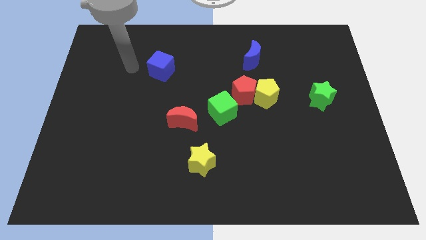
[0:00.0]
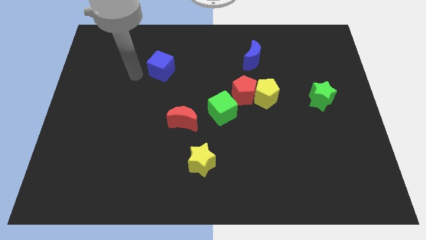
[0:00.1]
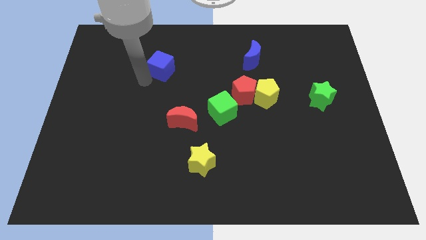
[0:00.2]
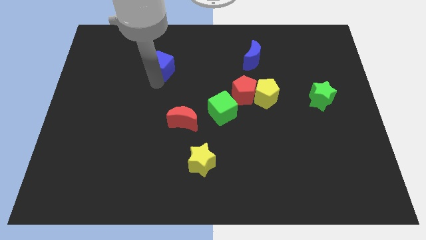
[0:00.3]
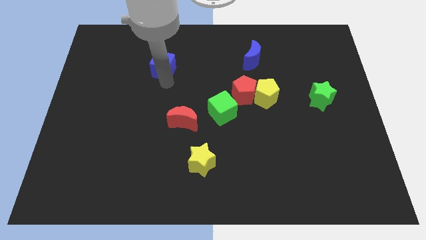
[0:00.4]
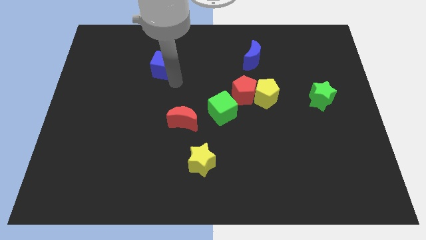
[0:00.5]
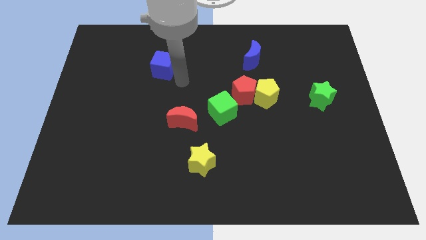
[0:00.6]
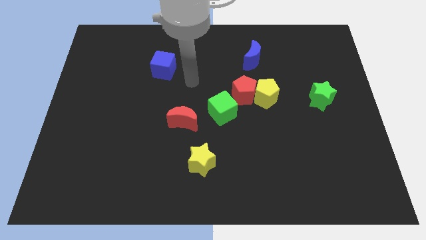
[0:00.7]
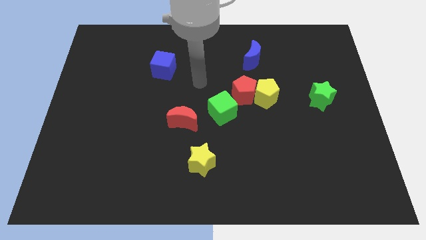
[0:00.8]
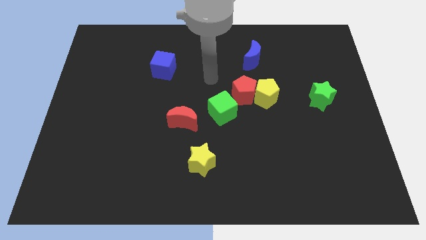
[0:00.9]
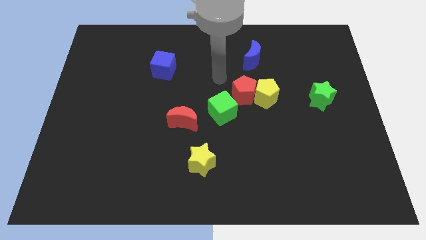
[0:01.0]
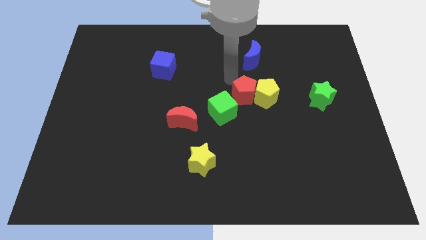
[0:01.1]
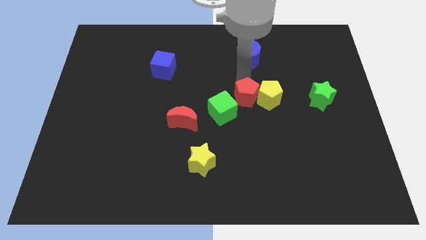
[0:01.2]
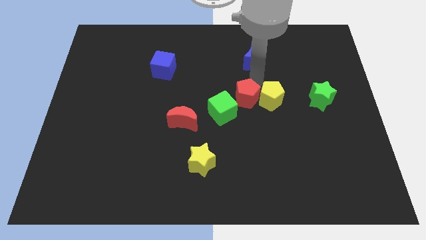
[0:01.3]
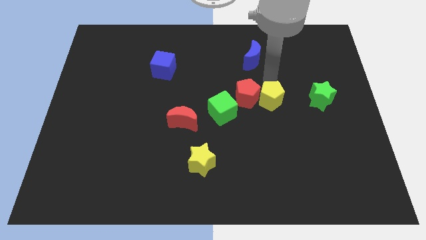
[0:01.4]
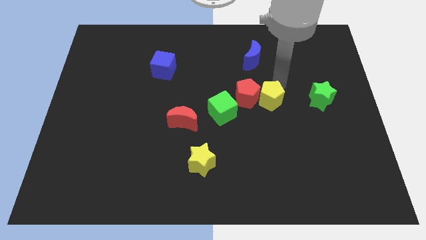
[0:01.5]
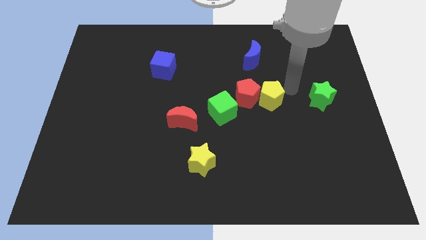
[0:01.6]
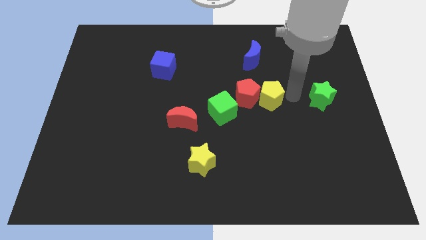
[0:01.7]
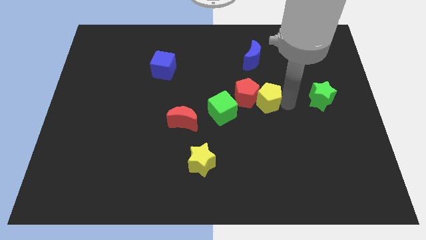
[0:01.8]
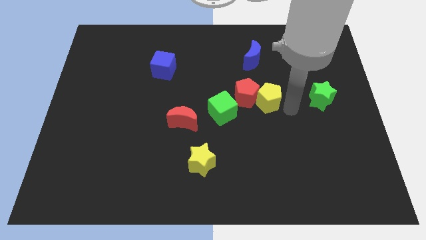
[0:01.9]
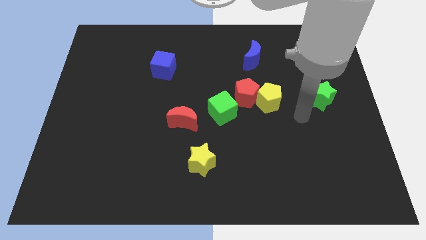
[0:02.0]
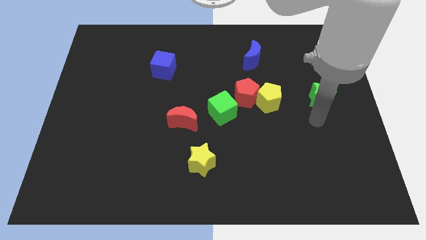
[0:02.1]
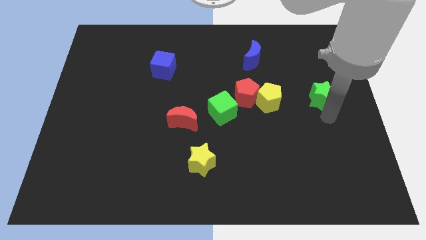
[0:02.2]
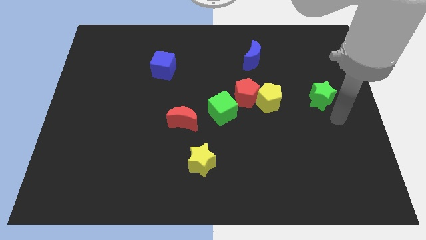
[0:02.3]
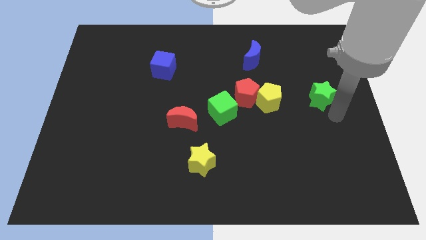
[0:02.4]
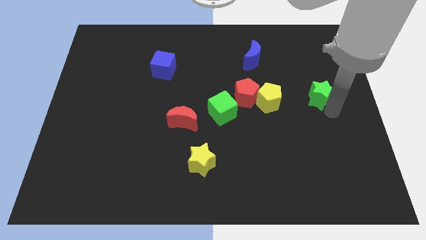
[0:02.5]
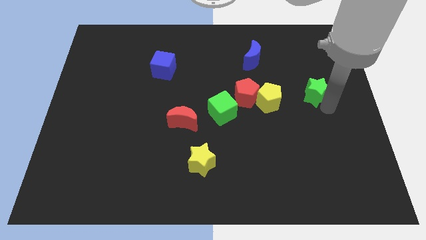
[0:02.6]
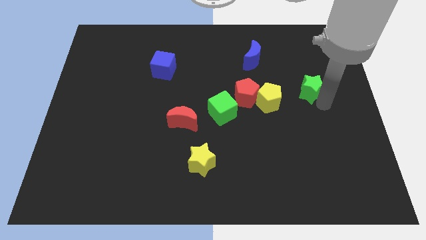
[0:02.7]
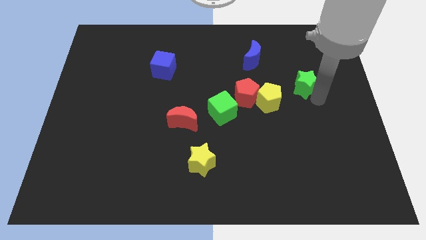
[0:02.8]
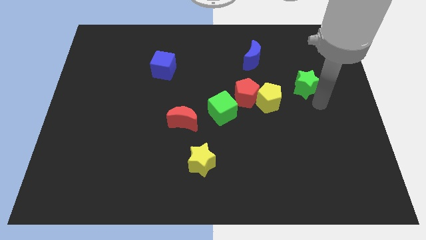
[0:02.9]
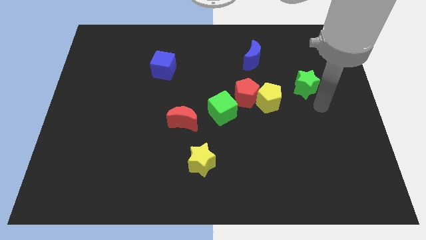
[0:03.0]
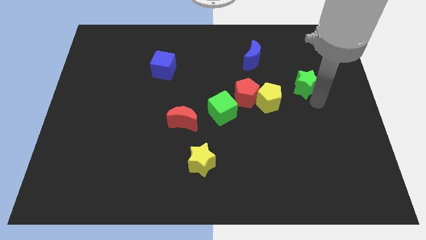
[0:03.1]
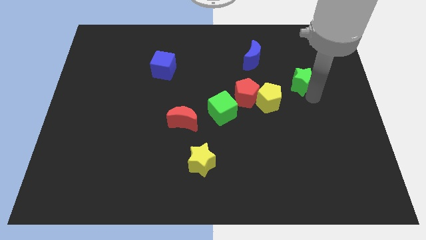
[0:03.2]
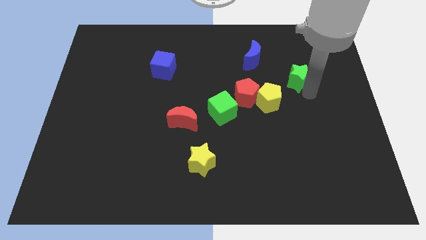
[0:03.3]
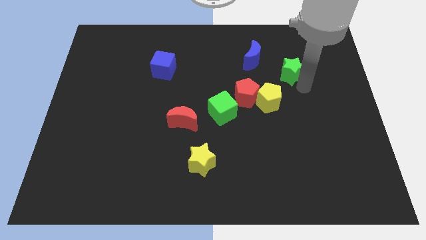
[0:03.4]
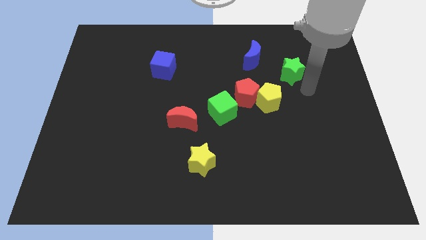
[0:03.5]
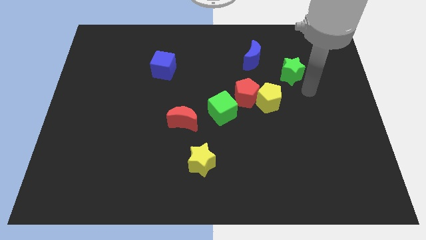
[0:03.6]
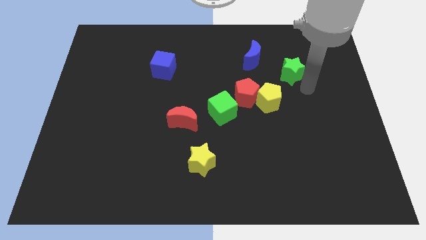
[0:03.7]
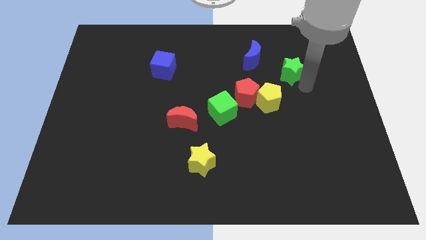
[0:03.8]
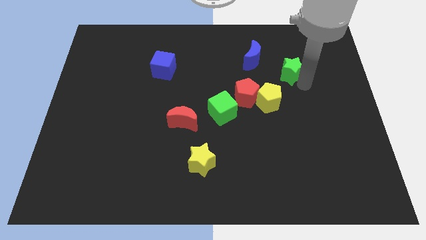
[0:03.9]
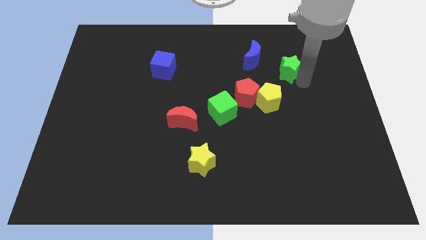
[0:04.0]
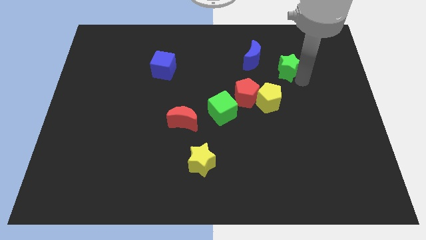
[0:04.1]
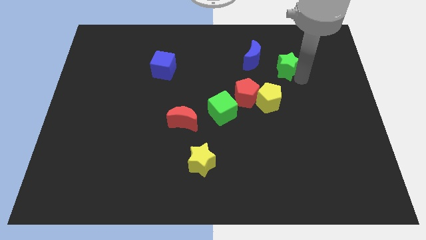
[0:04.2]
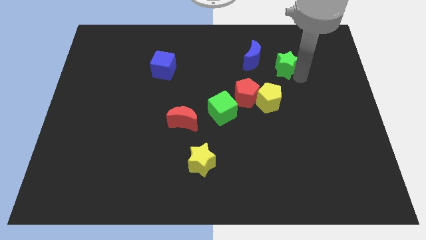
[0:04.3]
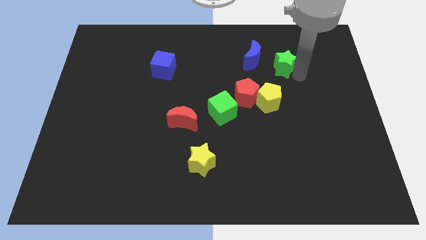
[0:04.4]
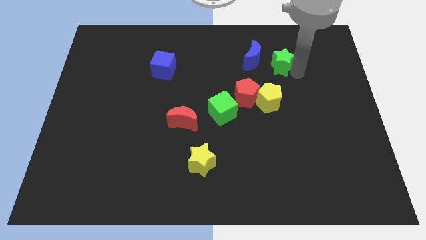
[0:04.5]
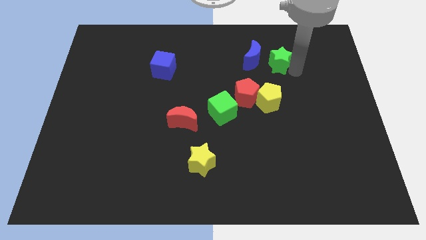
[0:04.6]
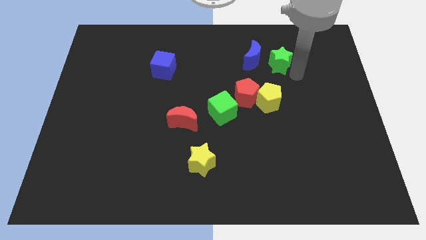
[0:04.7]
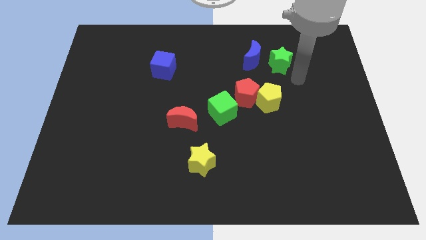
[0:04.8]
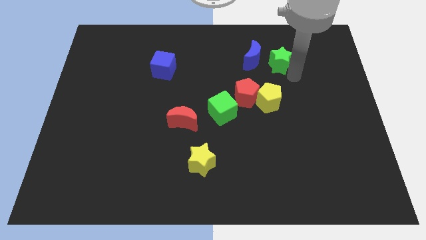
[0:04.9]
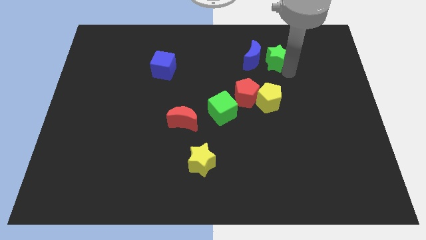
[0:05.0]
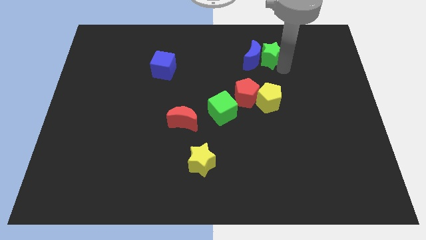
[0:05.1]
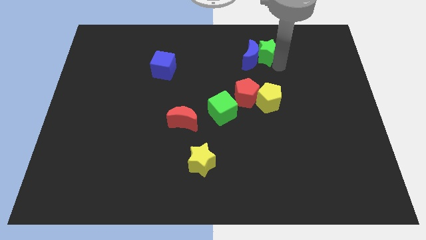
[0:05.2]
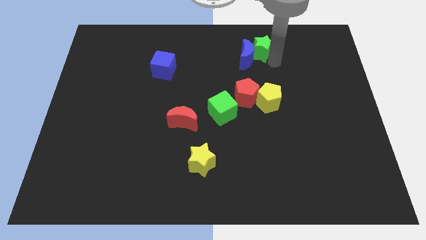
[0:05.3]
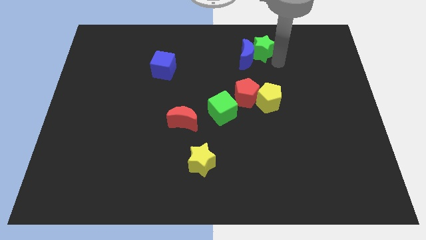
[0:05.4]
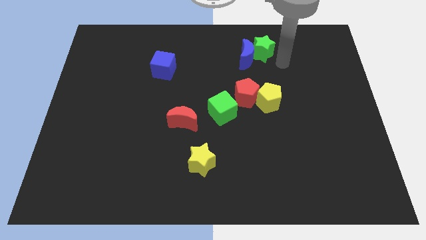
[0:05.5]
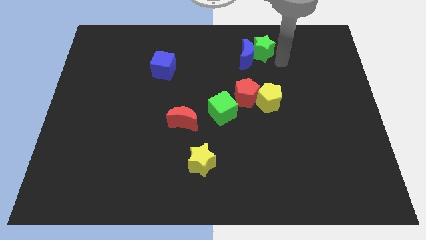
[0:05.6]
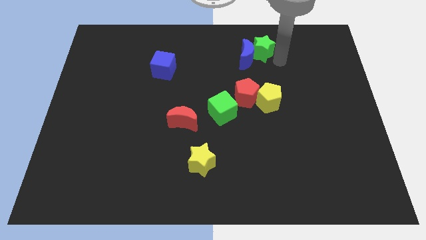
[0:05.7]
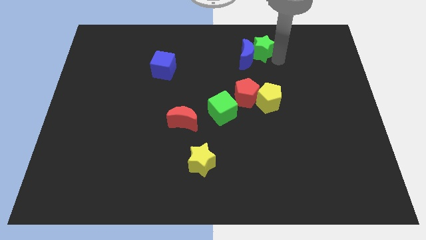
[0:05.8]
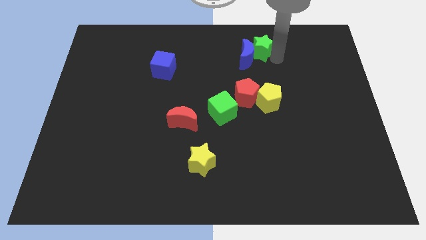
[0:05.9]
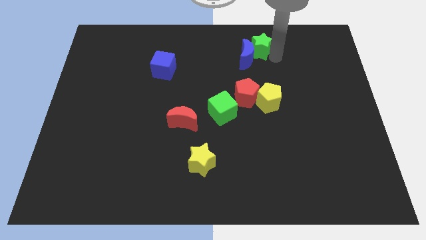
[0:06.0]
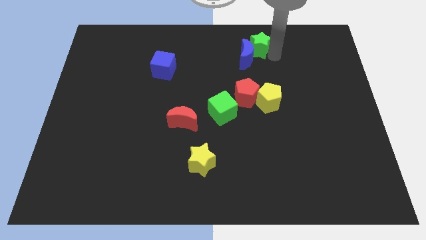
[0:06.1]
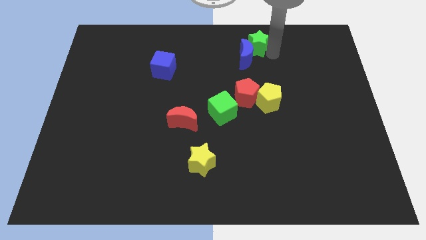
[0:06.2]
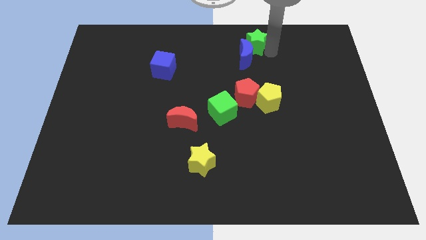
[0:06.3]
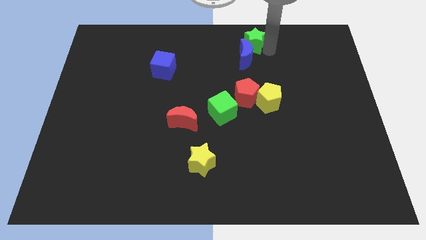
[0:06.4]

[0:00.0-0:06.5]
push the green star to the towards your base

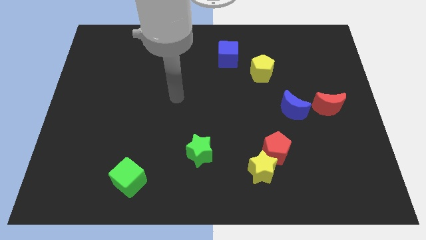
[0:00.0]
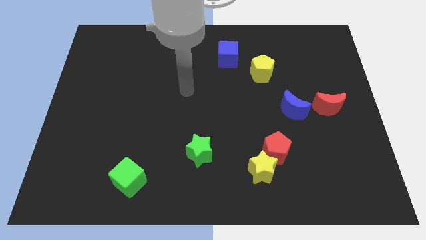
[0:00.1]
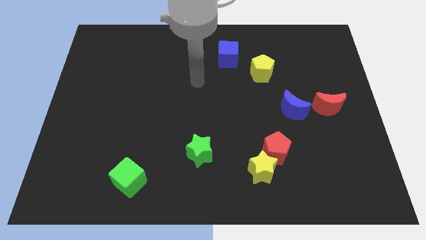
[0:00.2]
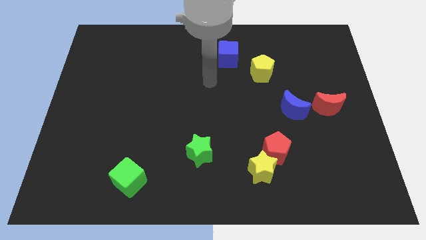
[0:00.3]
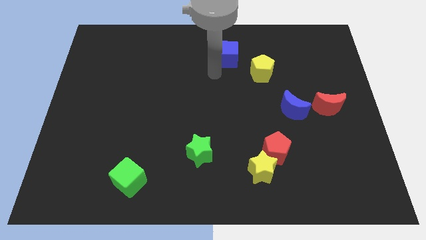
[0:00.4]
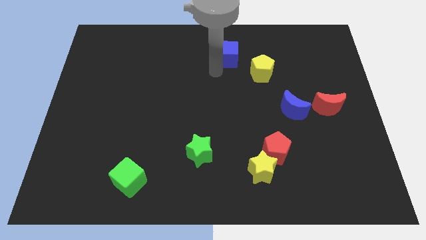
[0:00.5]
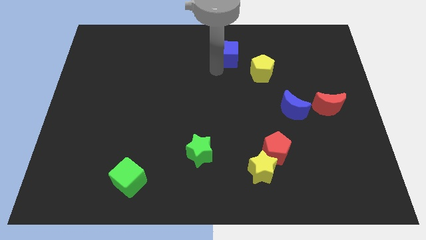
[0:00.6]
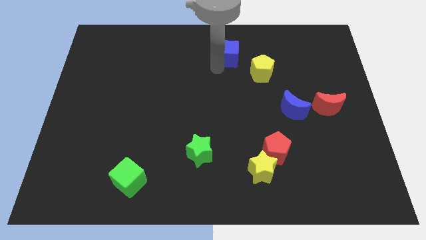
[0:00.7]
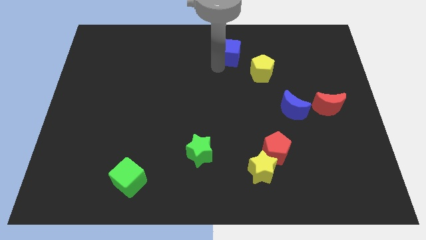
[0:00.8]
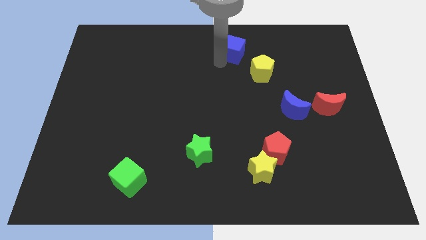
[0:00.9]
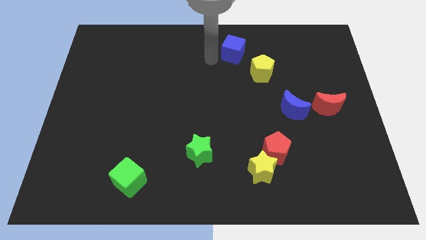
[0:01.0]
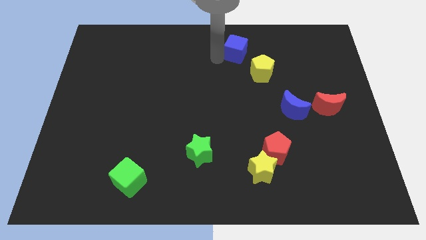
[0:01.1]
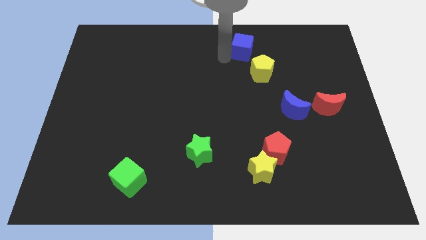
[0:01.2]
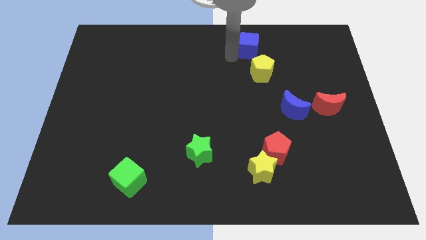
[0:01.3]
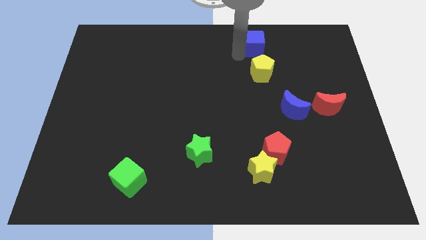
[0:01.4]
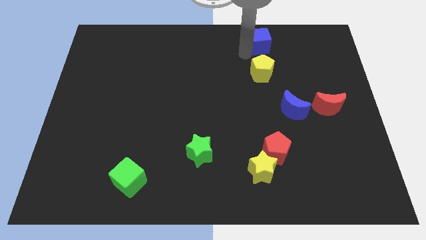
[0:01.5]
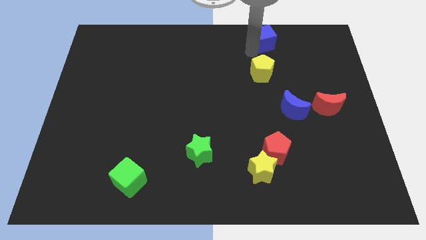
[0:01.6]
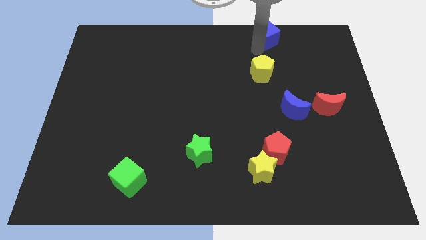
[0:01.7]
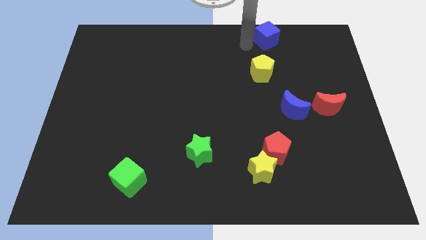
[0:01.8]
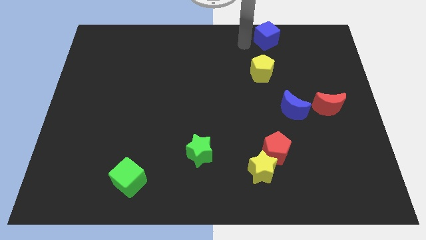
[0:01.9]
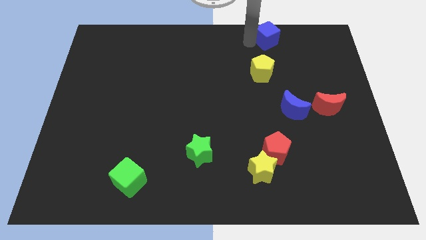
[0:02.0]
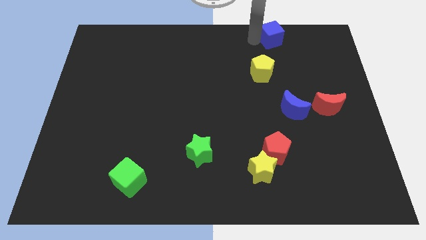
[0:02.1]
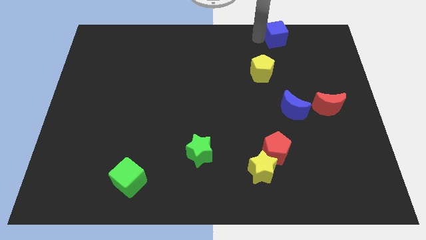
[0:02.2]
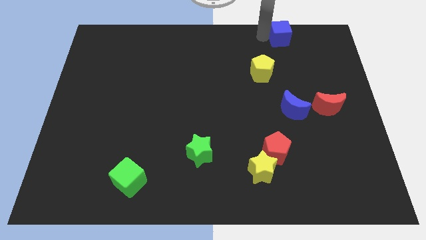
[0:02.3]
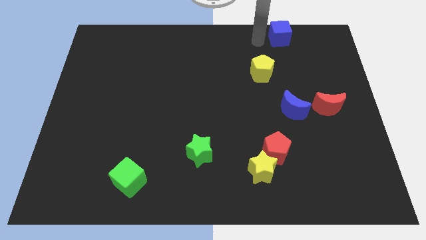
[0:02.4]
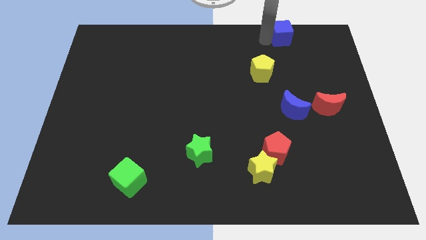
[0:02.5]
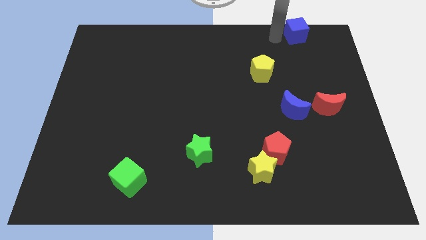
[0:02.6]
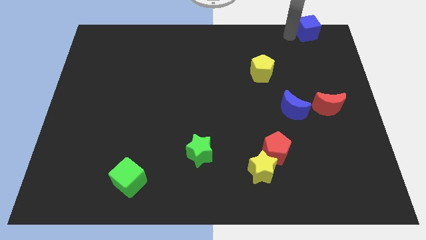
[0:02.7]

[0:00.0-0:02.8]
slide the blue cube to the top right corner
